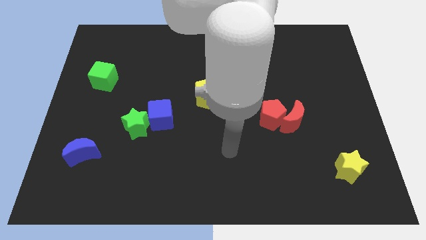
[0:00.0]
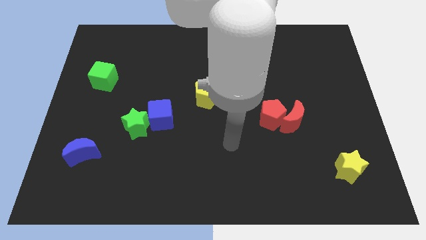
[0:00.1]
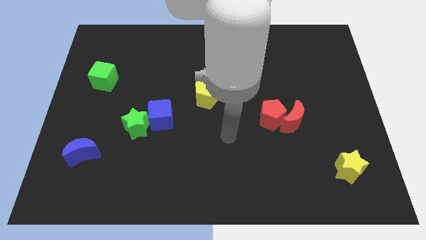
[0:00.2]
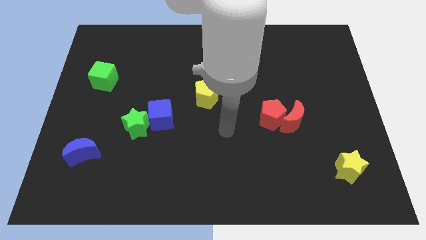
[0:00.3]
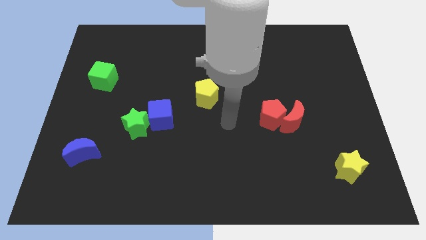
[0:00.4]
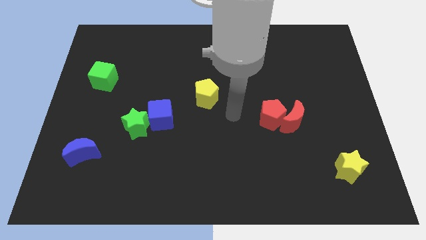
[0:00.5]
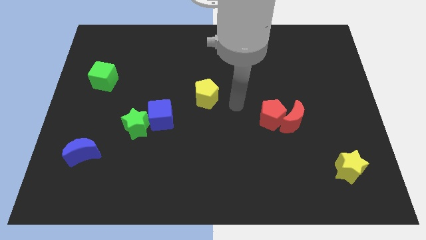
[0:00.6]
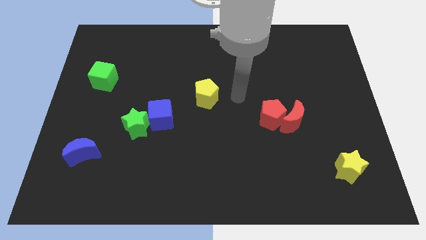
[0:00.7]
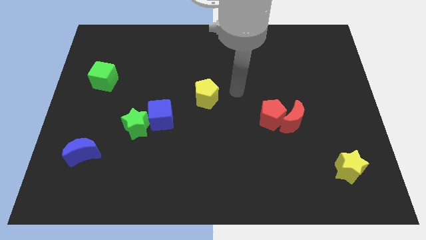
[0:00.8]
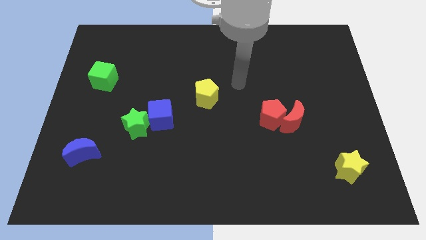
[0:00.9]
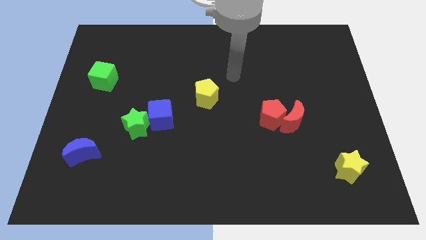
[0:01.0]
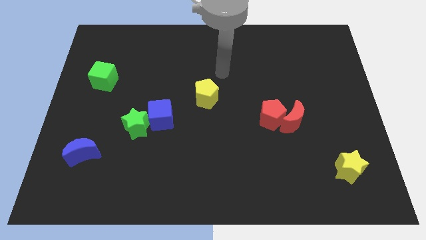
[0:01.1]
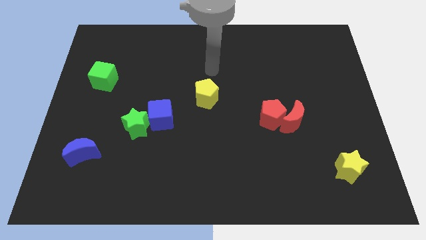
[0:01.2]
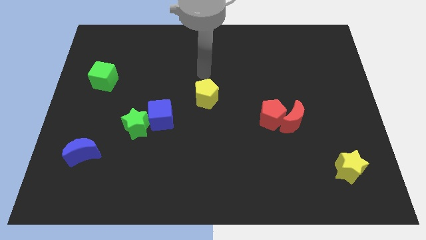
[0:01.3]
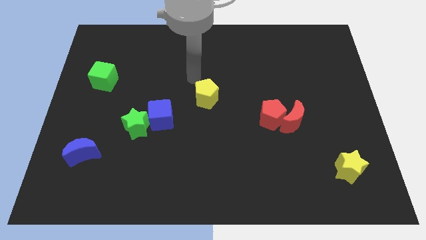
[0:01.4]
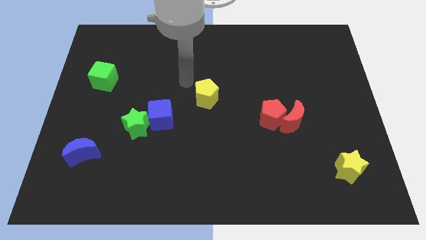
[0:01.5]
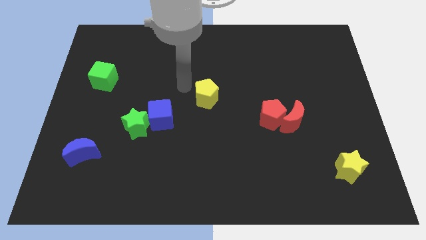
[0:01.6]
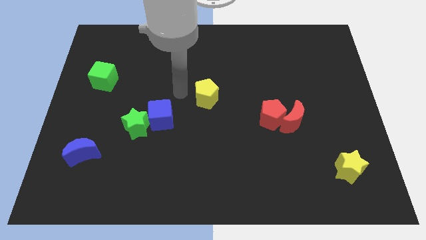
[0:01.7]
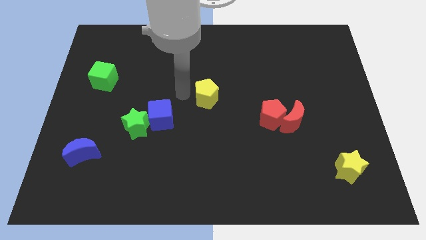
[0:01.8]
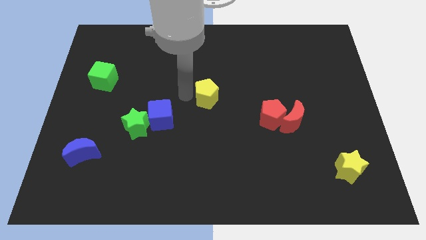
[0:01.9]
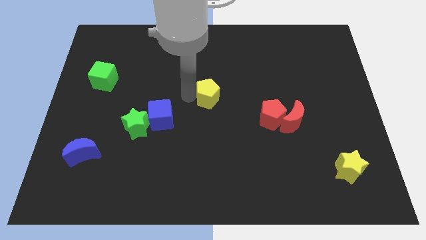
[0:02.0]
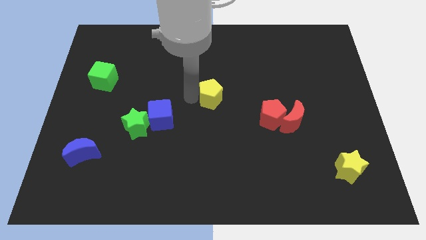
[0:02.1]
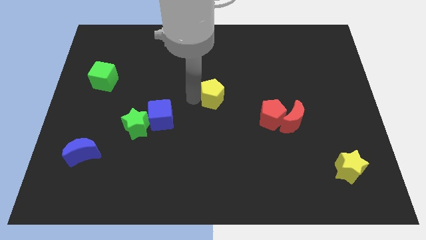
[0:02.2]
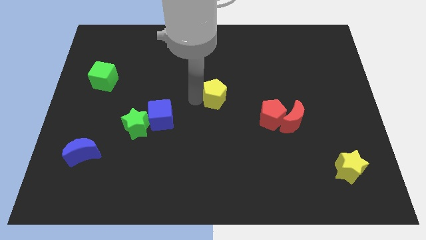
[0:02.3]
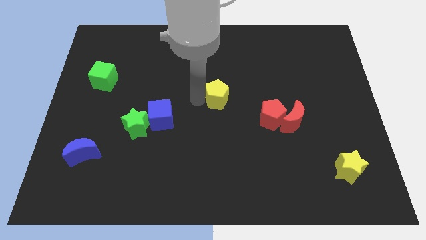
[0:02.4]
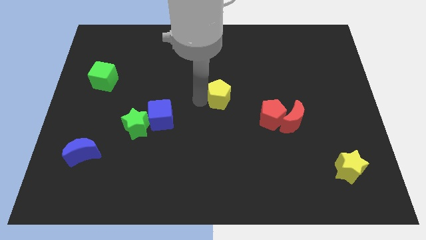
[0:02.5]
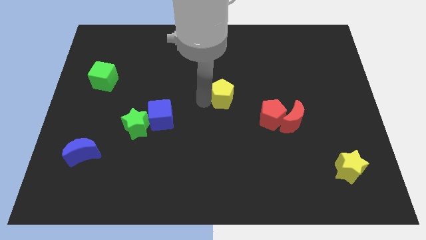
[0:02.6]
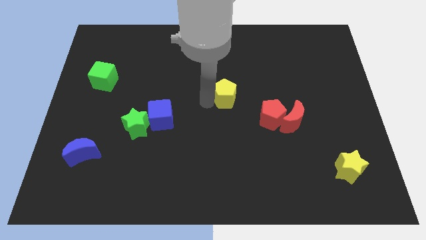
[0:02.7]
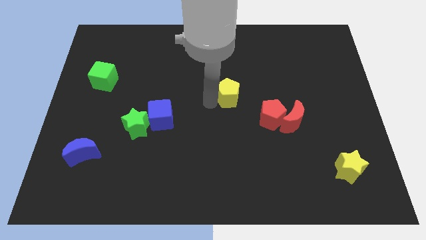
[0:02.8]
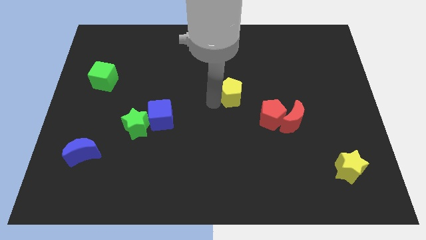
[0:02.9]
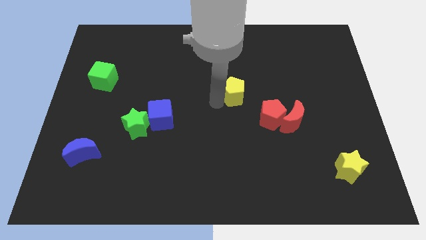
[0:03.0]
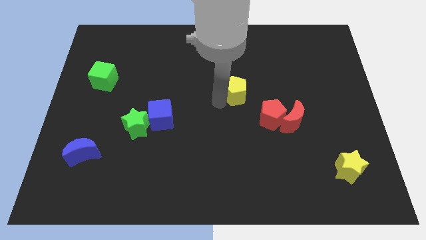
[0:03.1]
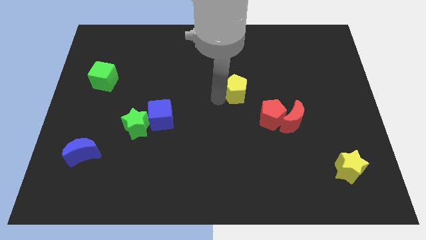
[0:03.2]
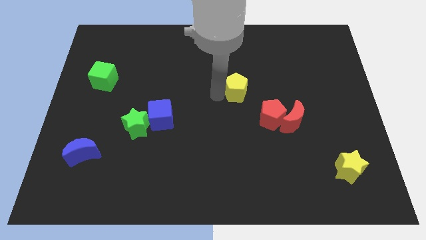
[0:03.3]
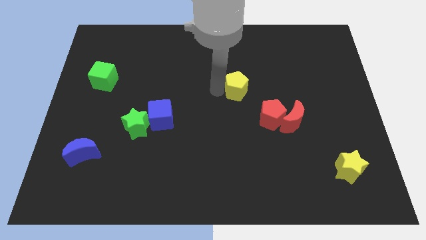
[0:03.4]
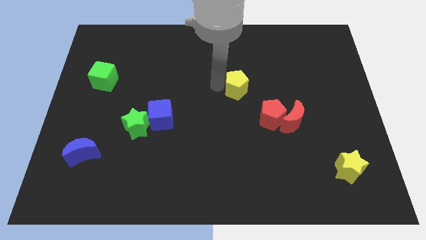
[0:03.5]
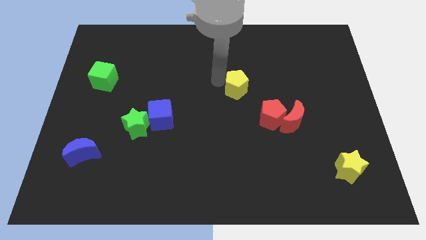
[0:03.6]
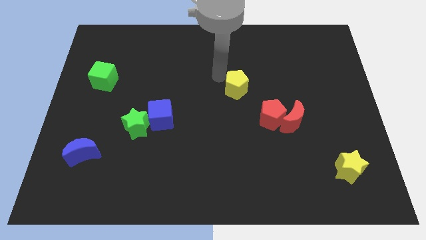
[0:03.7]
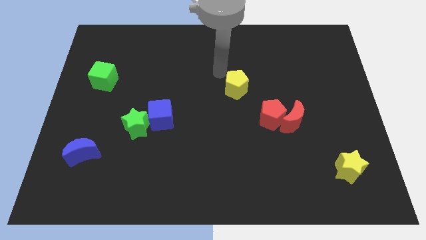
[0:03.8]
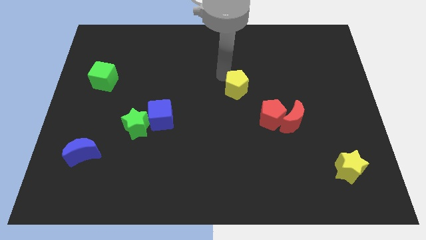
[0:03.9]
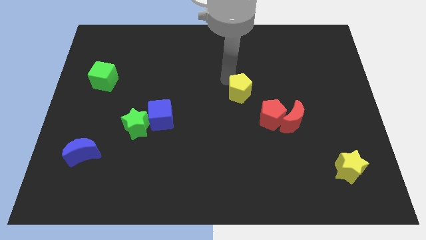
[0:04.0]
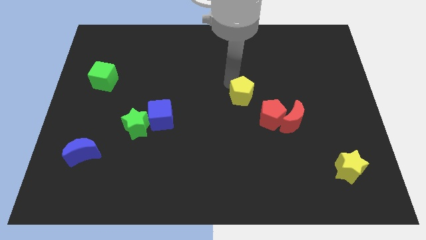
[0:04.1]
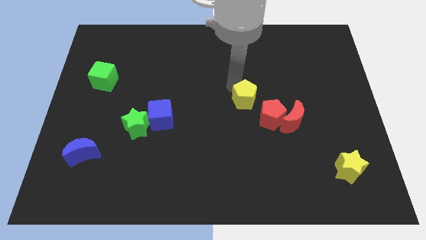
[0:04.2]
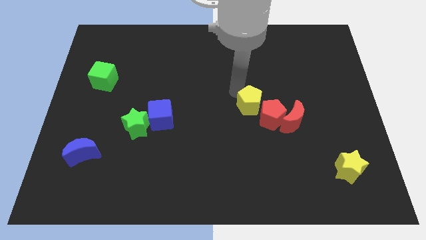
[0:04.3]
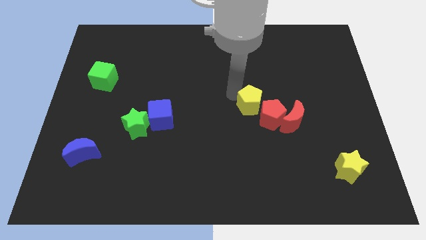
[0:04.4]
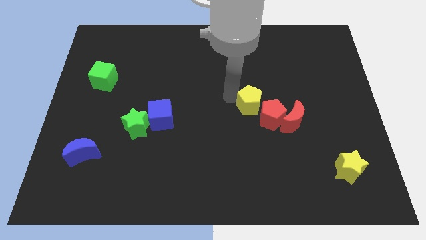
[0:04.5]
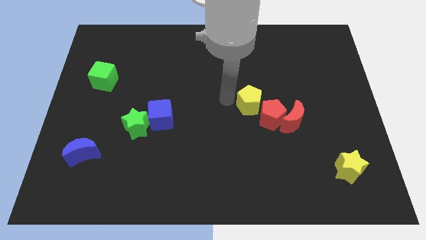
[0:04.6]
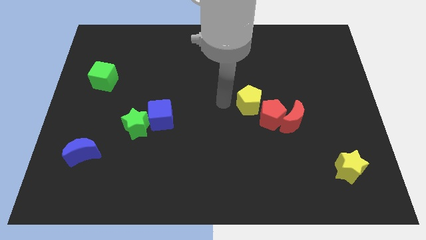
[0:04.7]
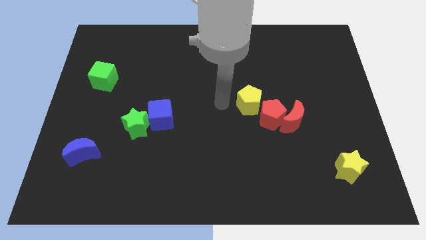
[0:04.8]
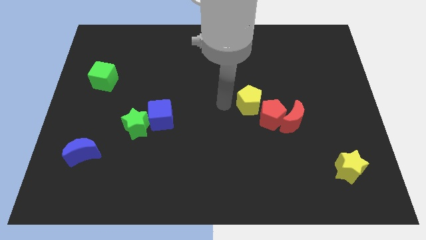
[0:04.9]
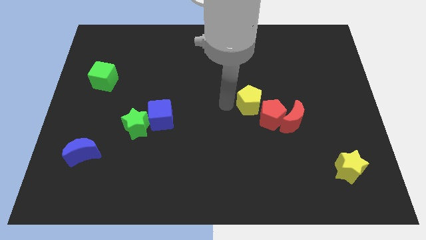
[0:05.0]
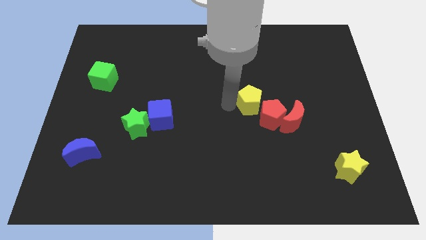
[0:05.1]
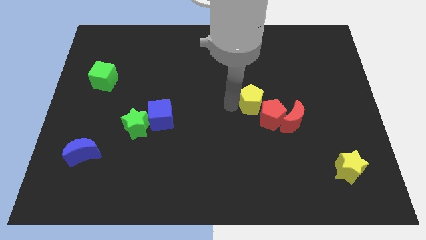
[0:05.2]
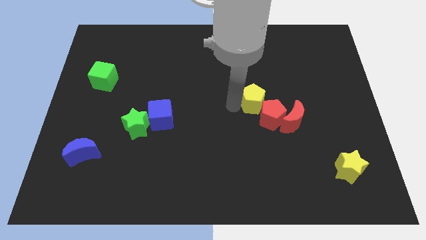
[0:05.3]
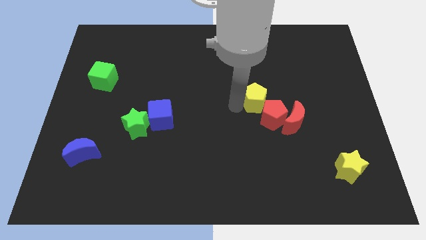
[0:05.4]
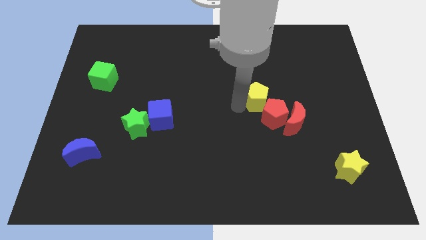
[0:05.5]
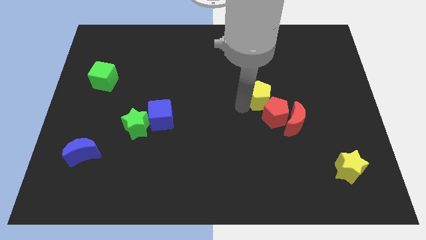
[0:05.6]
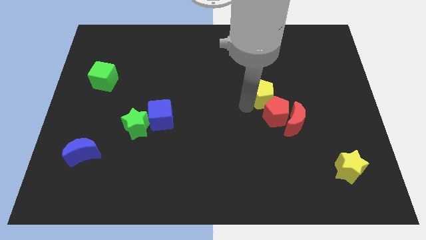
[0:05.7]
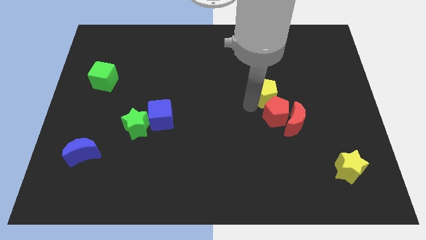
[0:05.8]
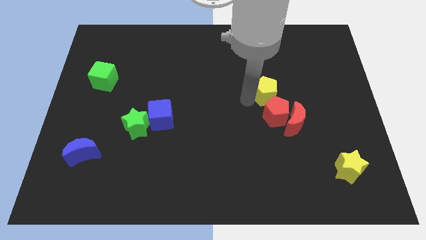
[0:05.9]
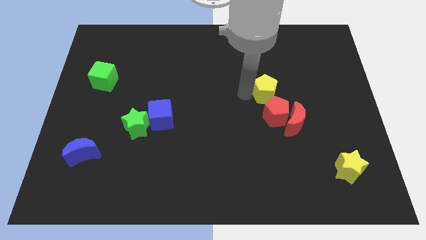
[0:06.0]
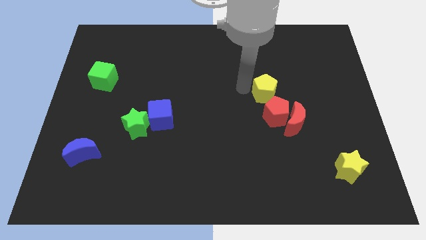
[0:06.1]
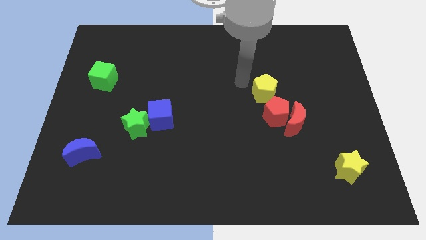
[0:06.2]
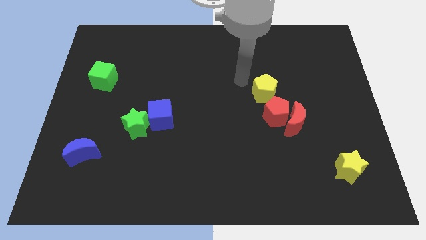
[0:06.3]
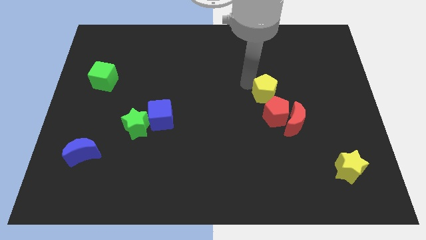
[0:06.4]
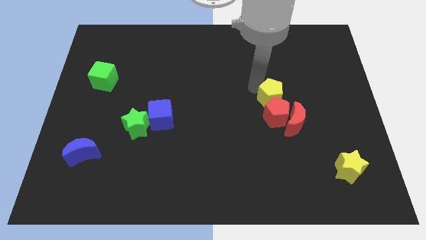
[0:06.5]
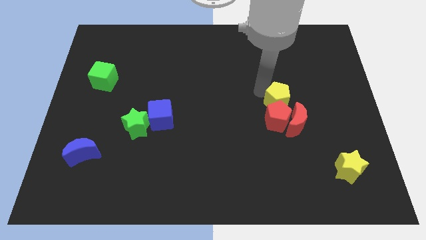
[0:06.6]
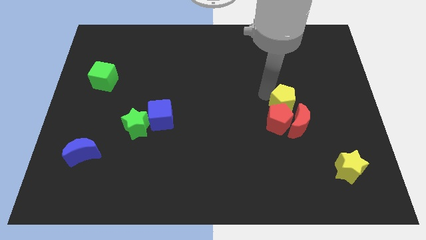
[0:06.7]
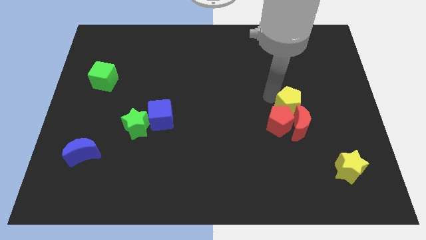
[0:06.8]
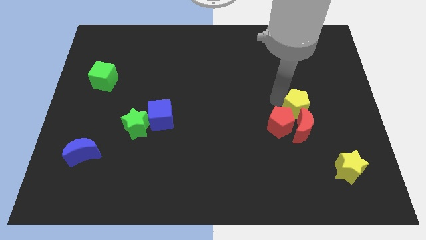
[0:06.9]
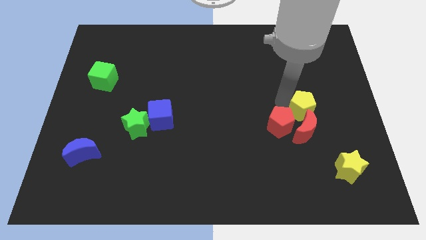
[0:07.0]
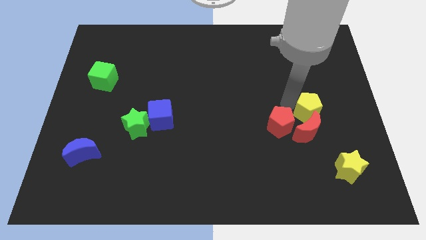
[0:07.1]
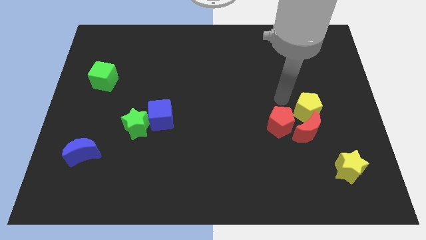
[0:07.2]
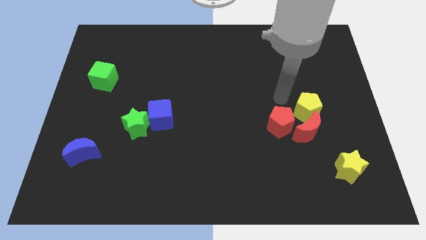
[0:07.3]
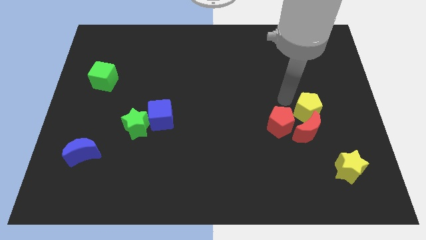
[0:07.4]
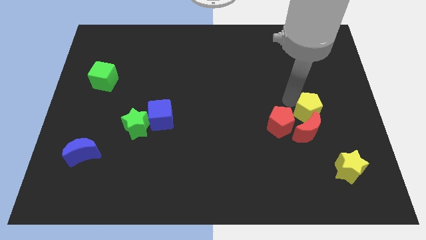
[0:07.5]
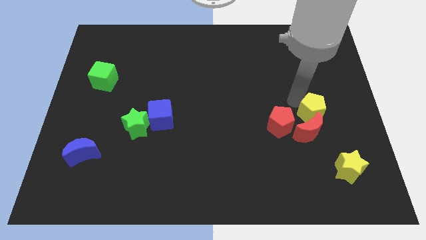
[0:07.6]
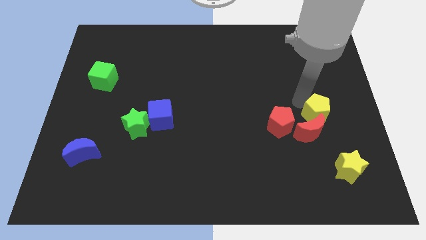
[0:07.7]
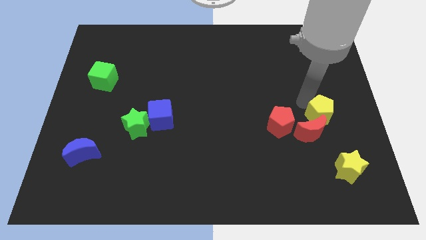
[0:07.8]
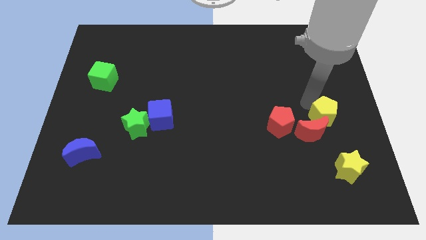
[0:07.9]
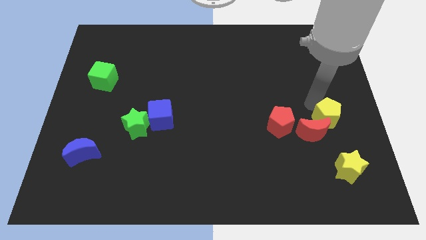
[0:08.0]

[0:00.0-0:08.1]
slide the yellow pentagon right of the red moon
